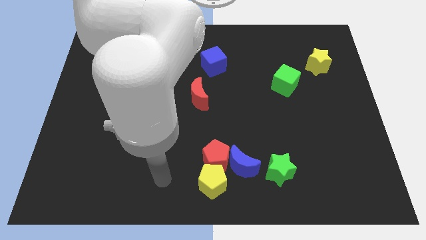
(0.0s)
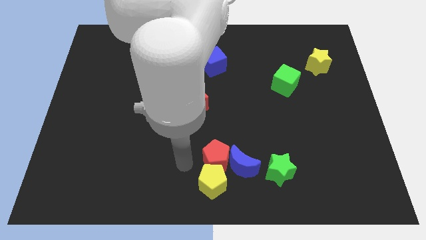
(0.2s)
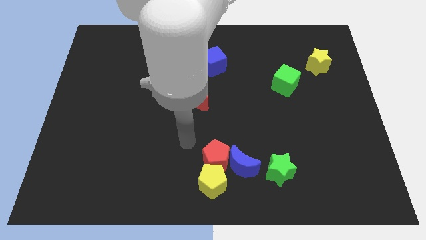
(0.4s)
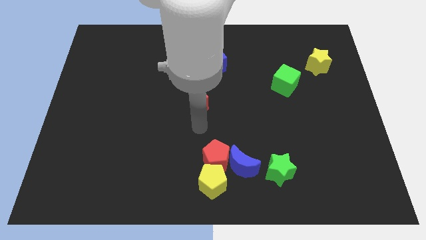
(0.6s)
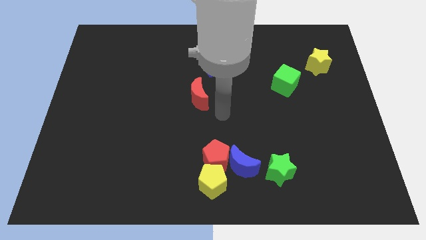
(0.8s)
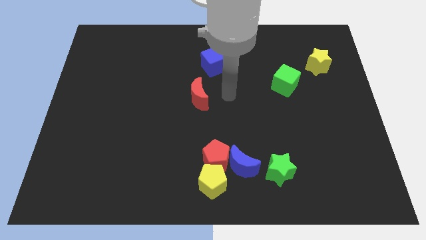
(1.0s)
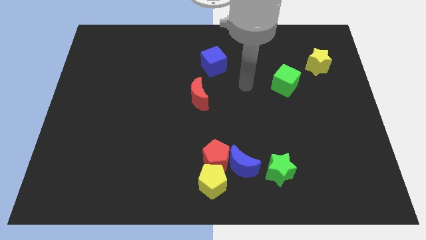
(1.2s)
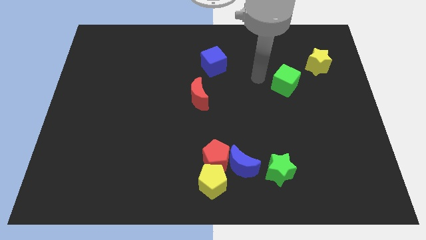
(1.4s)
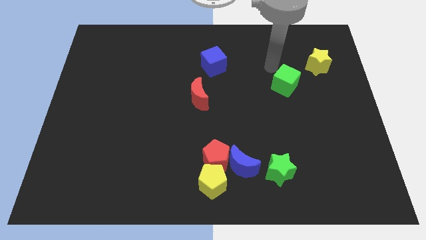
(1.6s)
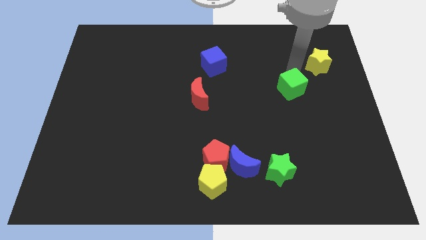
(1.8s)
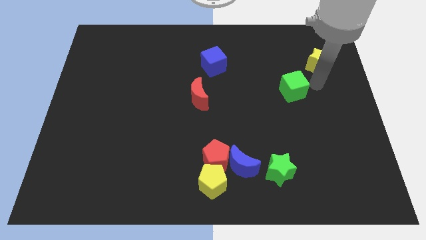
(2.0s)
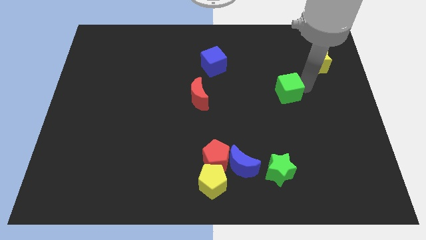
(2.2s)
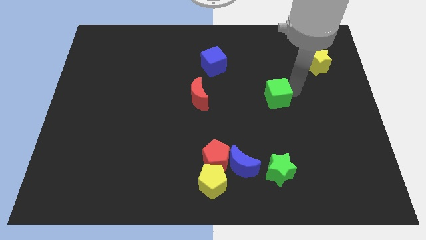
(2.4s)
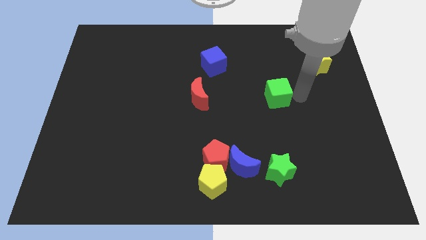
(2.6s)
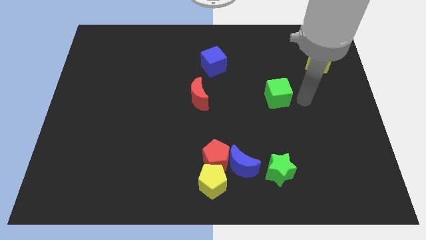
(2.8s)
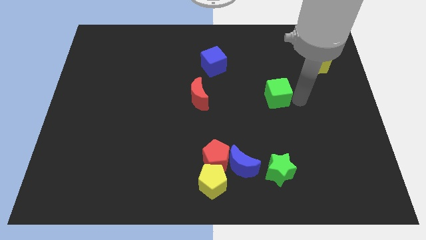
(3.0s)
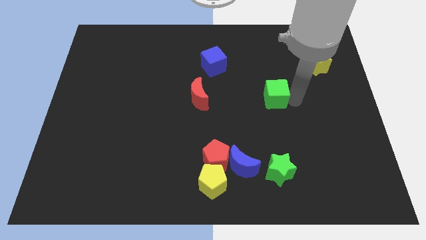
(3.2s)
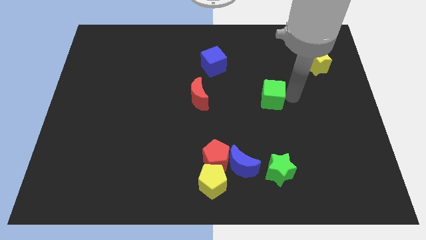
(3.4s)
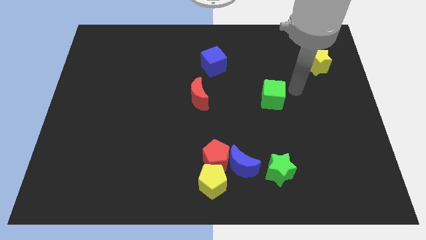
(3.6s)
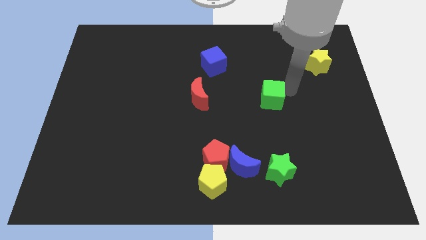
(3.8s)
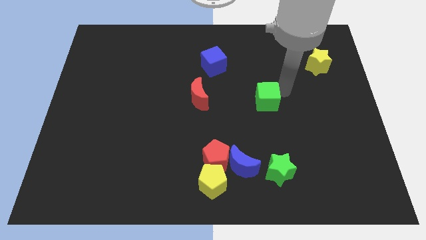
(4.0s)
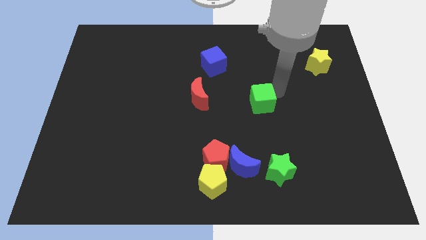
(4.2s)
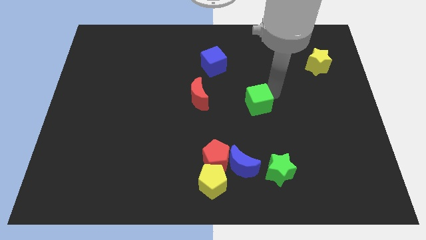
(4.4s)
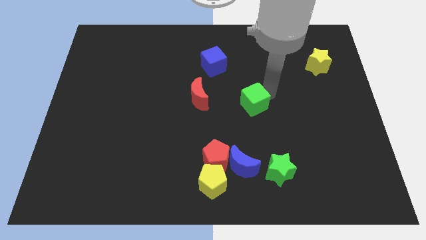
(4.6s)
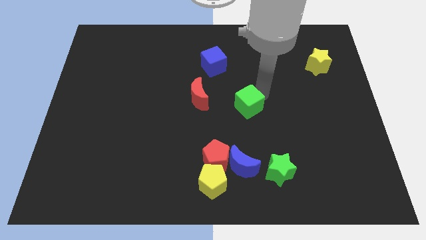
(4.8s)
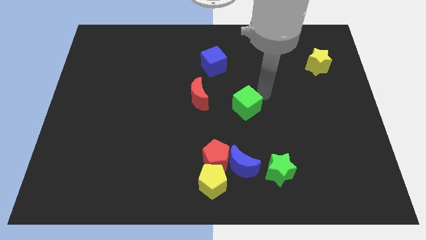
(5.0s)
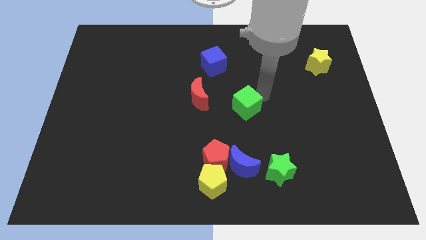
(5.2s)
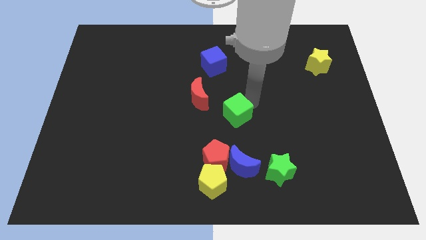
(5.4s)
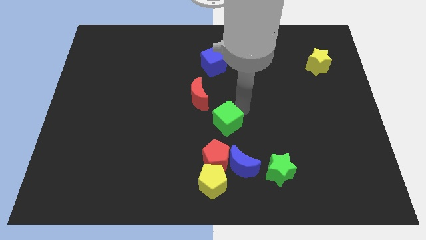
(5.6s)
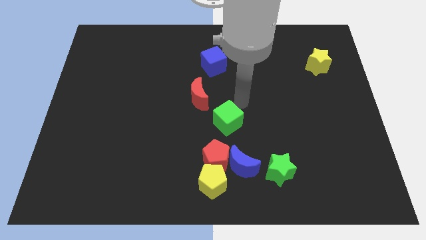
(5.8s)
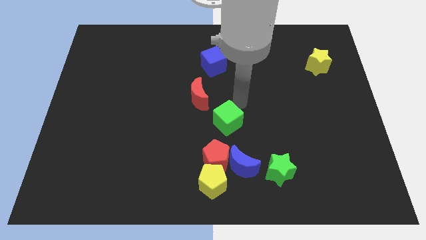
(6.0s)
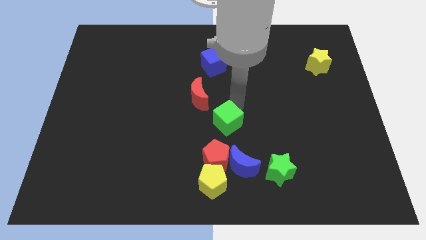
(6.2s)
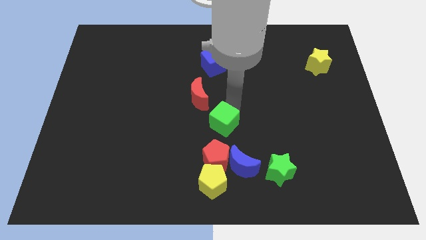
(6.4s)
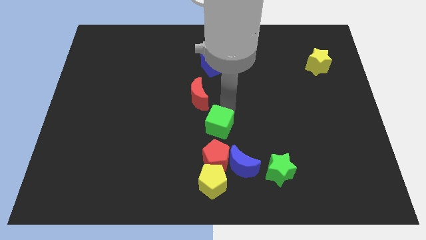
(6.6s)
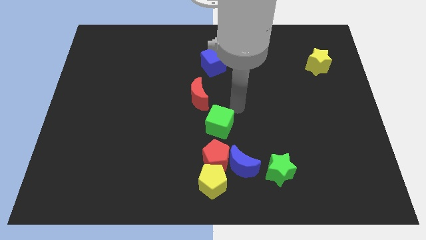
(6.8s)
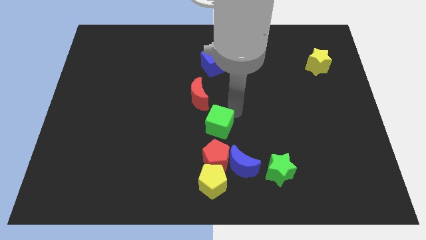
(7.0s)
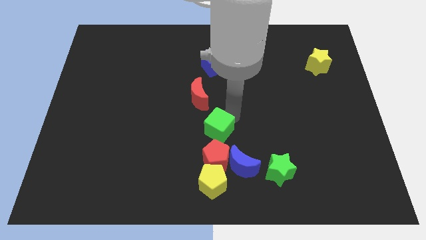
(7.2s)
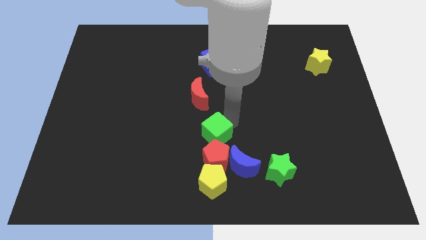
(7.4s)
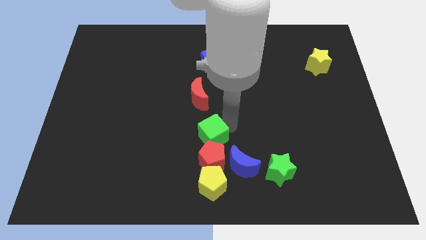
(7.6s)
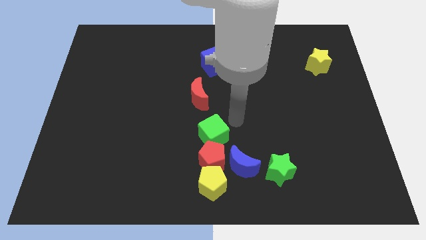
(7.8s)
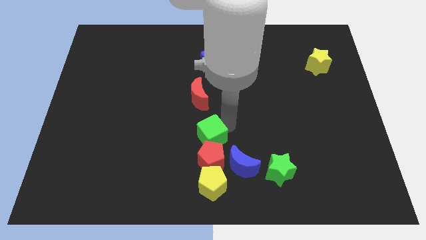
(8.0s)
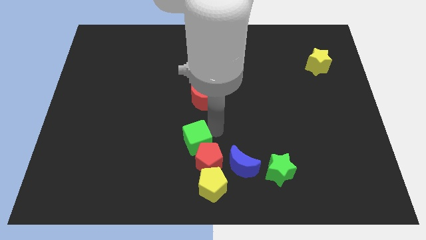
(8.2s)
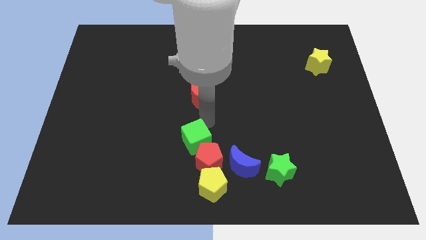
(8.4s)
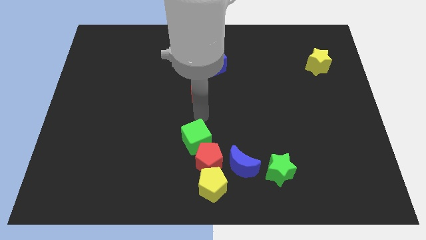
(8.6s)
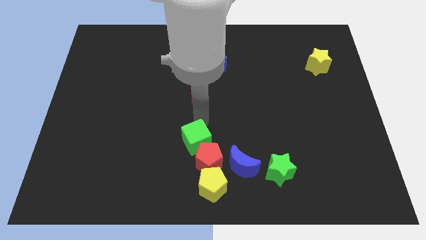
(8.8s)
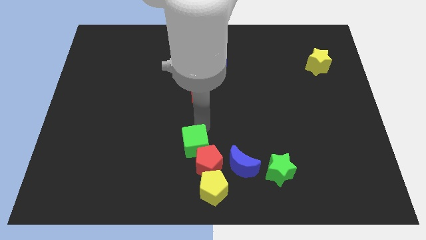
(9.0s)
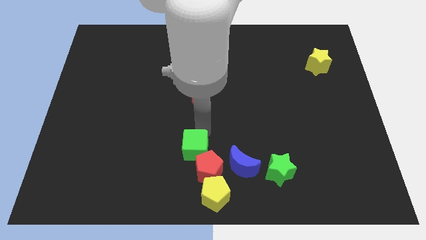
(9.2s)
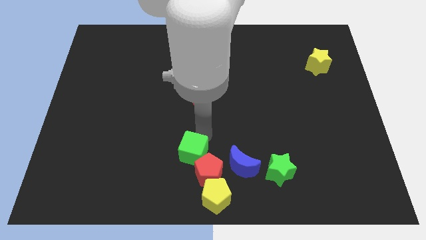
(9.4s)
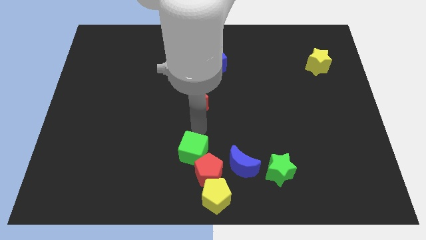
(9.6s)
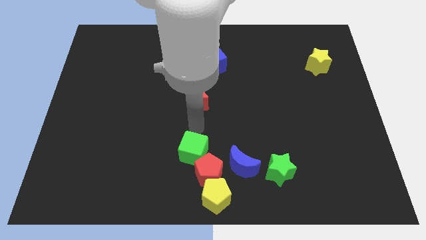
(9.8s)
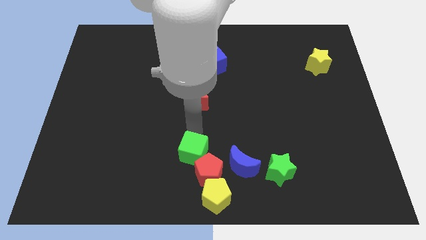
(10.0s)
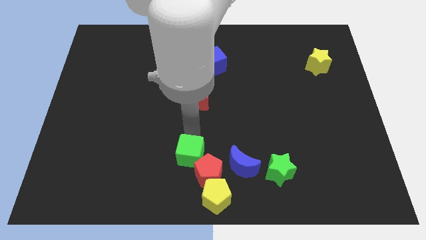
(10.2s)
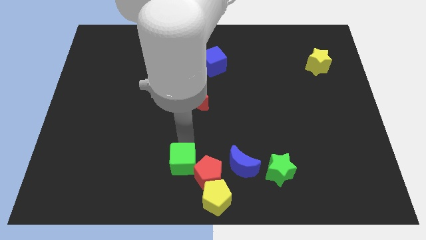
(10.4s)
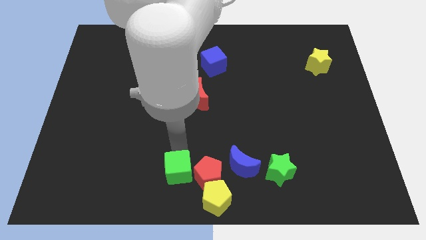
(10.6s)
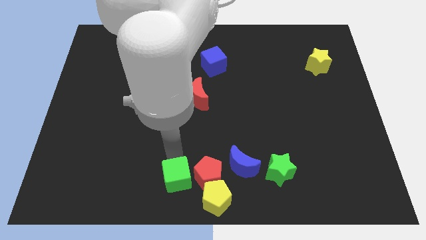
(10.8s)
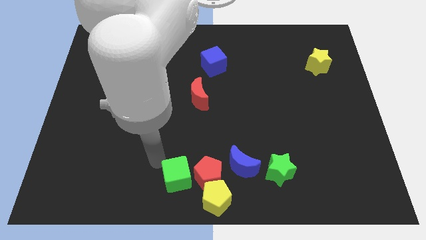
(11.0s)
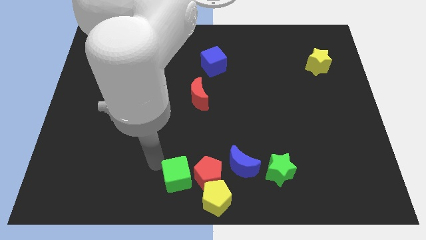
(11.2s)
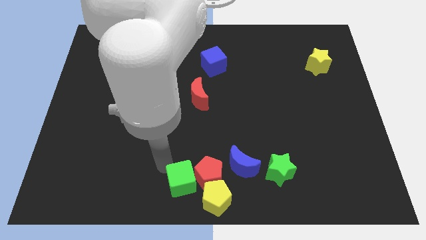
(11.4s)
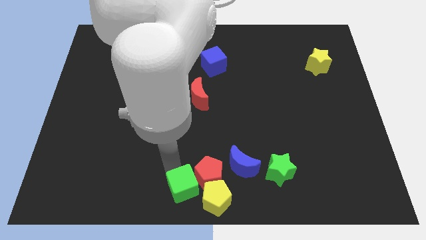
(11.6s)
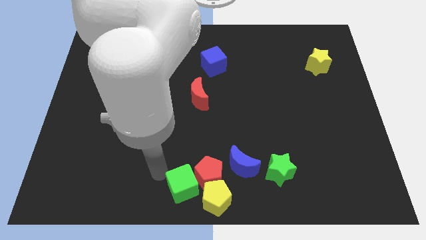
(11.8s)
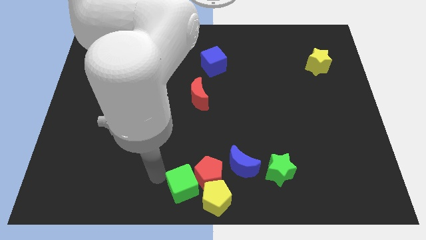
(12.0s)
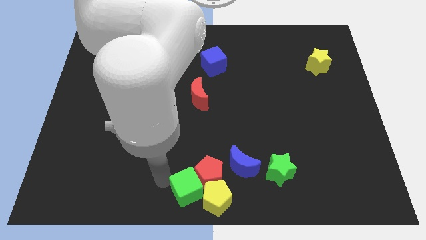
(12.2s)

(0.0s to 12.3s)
put the green cube to the yellow pentagon

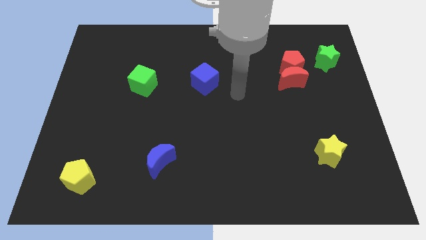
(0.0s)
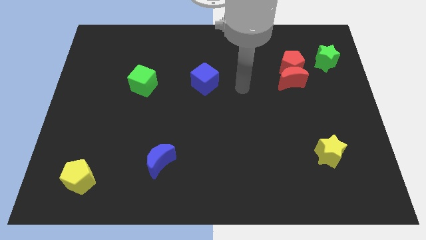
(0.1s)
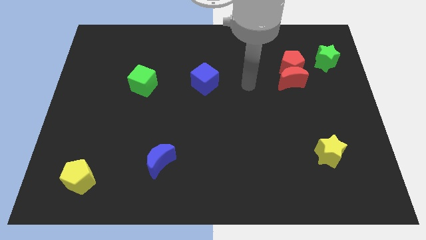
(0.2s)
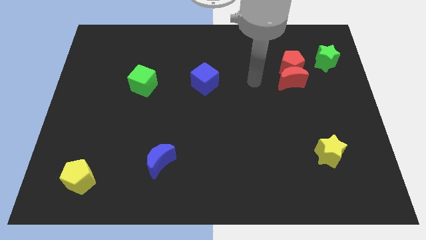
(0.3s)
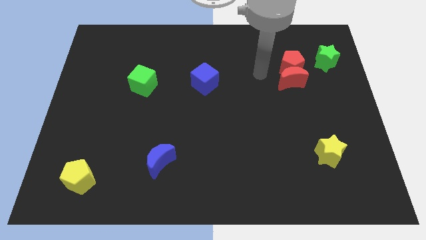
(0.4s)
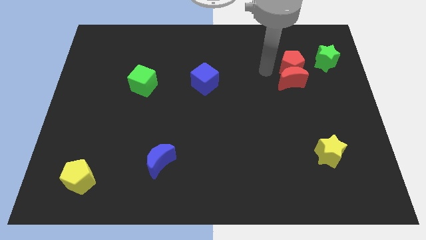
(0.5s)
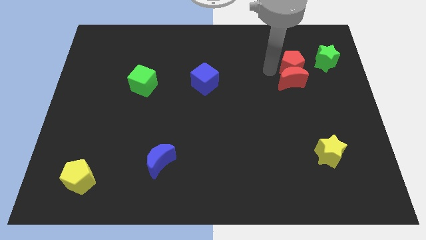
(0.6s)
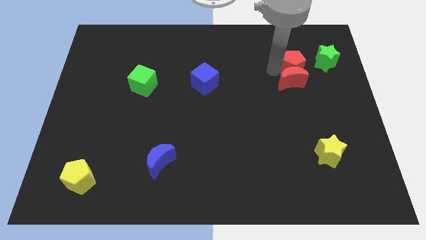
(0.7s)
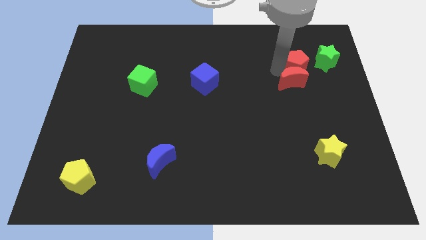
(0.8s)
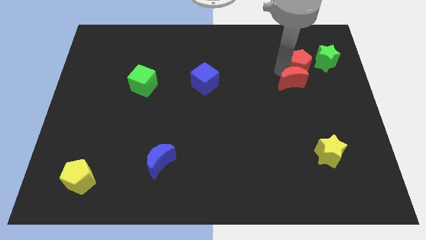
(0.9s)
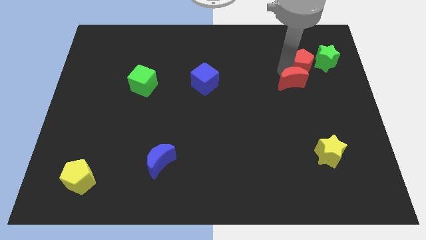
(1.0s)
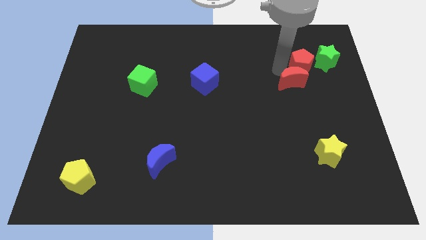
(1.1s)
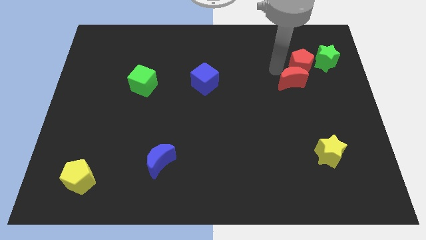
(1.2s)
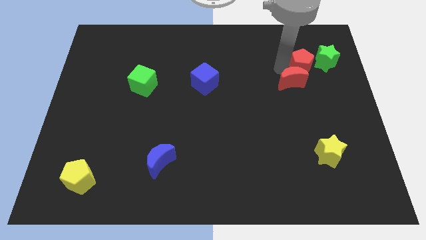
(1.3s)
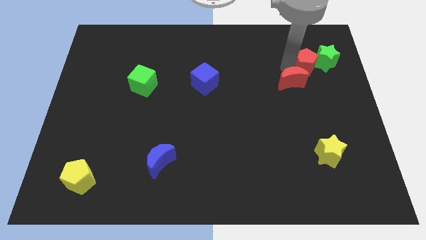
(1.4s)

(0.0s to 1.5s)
put the red pentagon next to the green star
